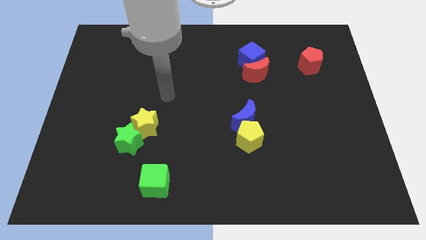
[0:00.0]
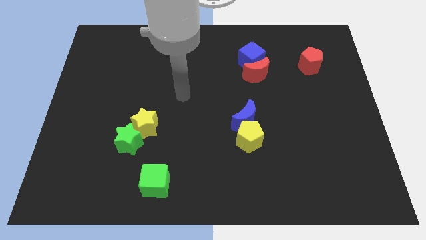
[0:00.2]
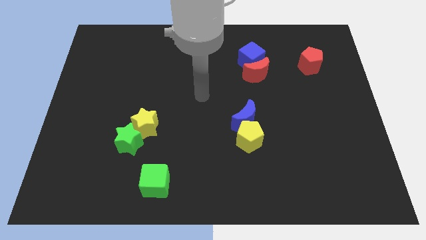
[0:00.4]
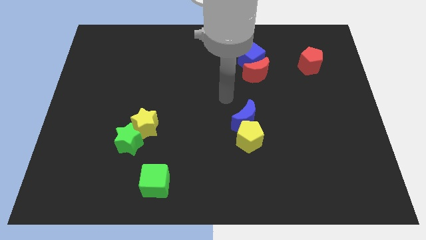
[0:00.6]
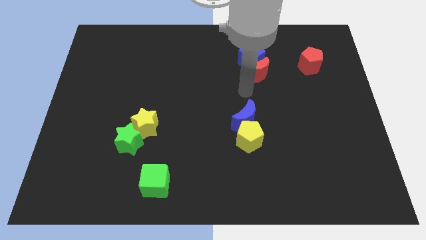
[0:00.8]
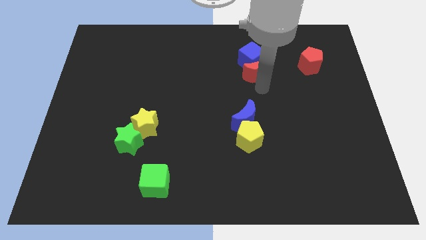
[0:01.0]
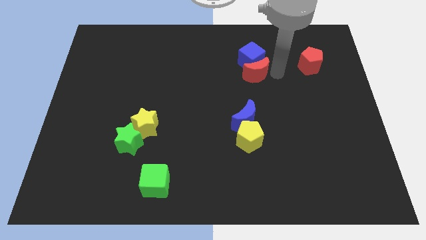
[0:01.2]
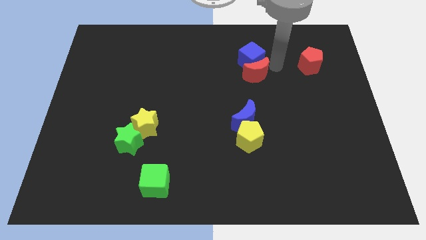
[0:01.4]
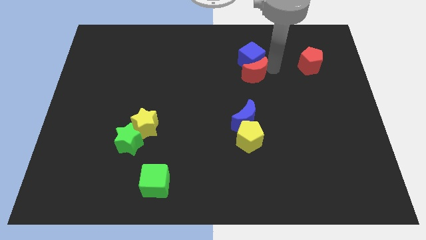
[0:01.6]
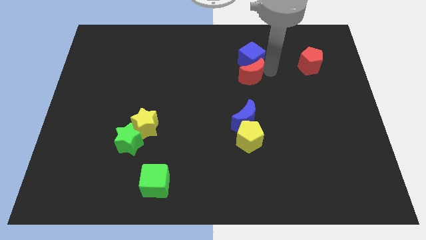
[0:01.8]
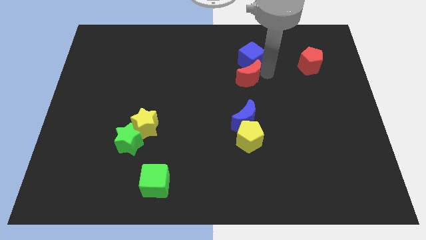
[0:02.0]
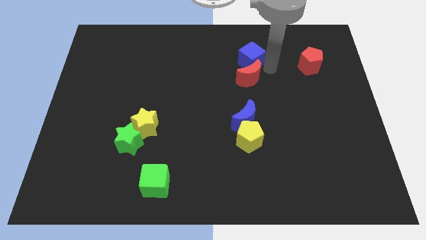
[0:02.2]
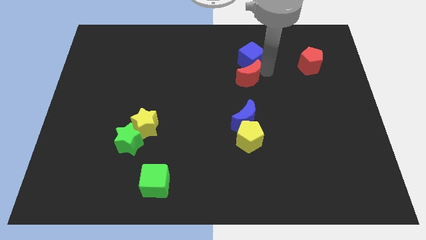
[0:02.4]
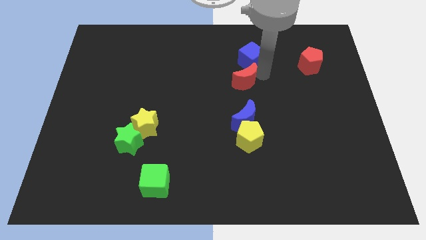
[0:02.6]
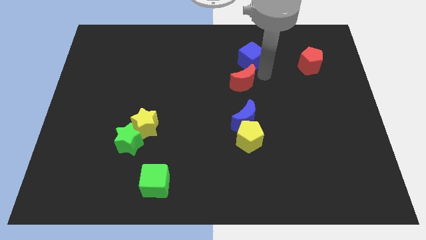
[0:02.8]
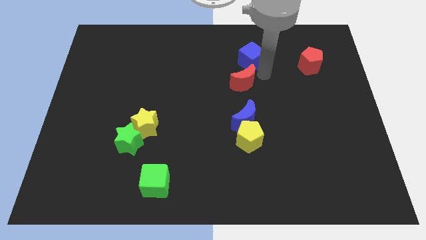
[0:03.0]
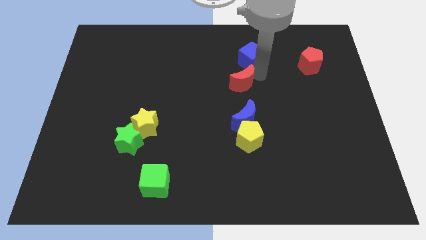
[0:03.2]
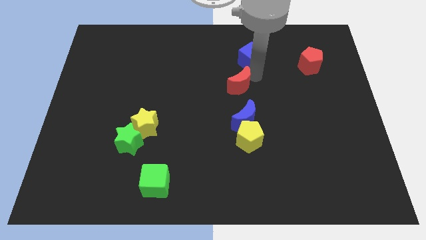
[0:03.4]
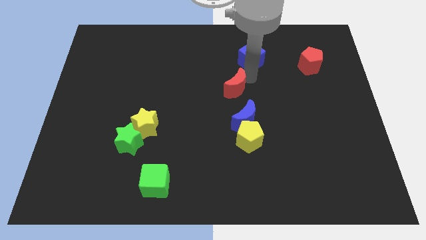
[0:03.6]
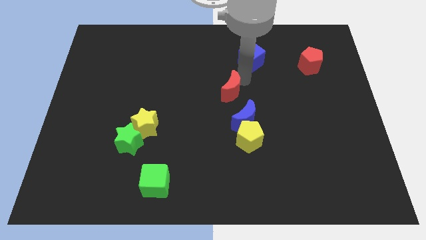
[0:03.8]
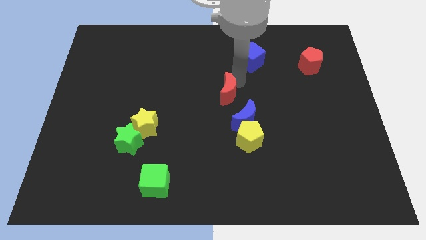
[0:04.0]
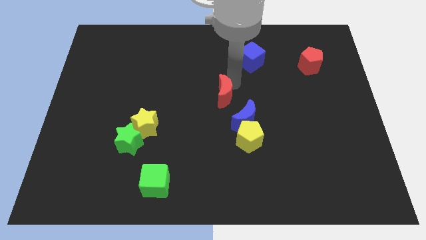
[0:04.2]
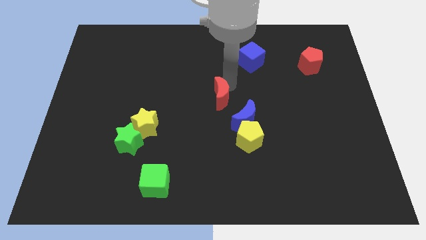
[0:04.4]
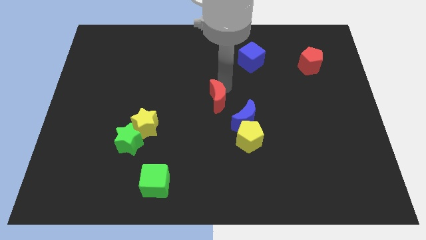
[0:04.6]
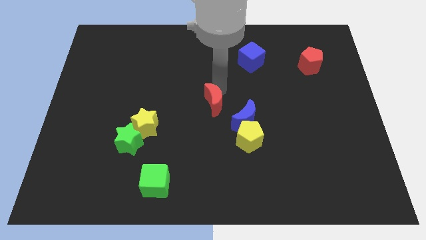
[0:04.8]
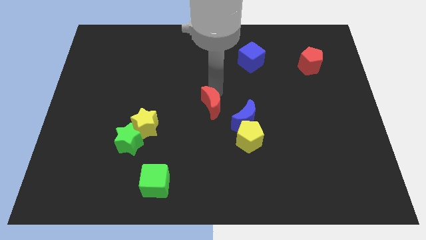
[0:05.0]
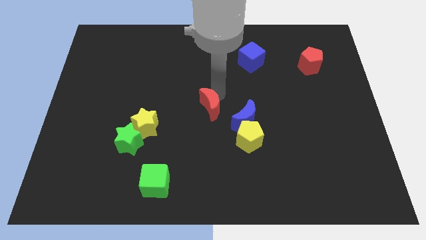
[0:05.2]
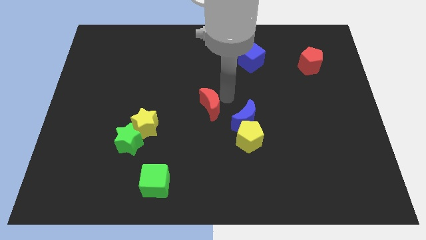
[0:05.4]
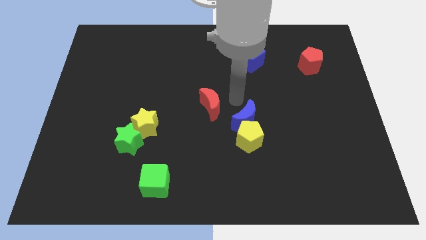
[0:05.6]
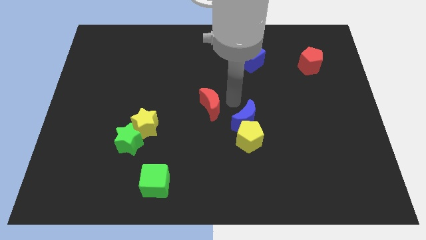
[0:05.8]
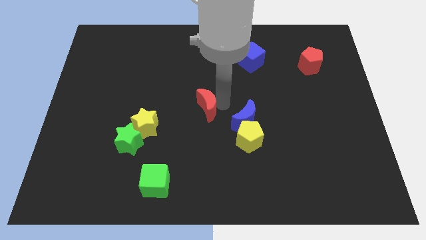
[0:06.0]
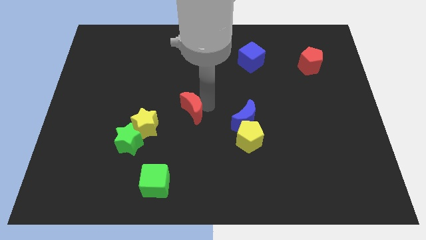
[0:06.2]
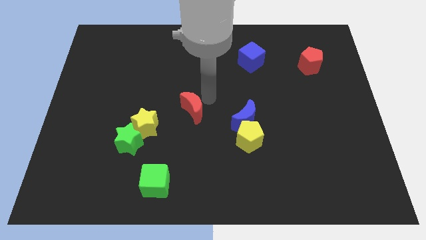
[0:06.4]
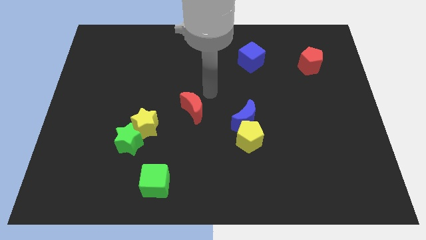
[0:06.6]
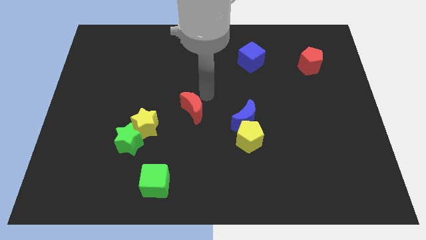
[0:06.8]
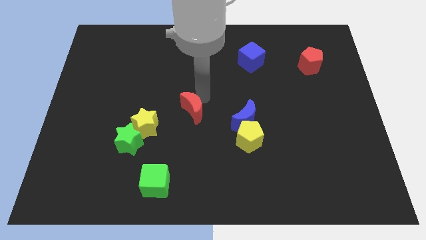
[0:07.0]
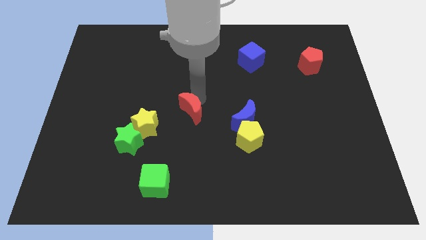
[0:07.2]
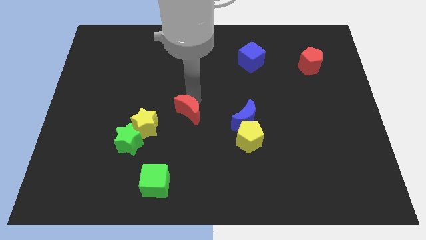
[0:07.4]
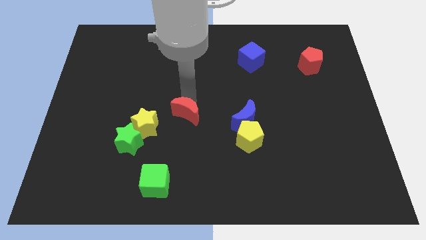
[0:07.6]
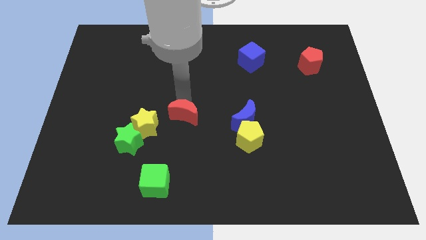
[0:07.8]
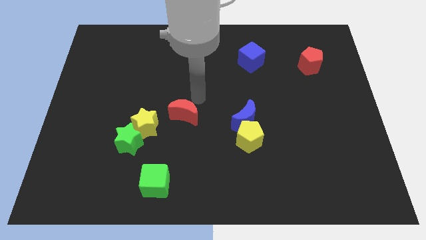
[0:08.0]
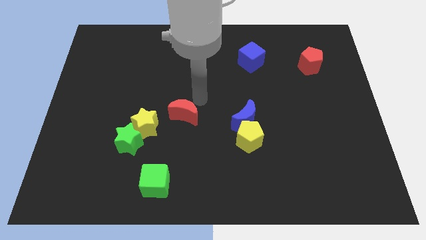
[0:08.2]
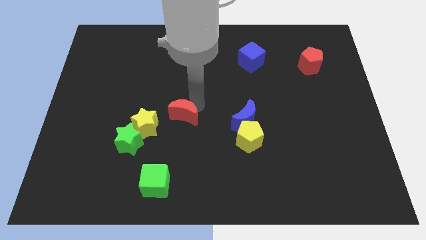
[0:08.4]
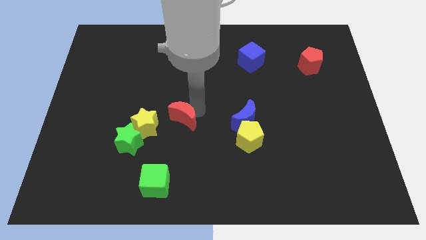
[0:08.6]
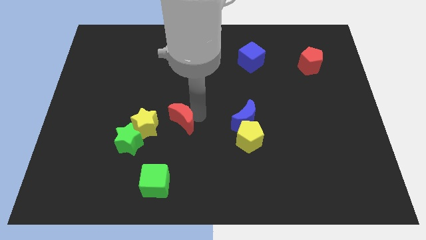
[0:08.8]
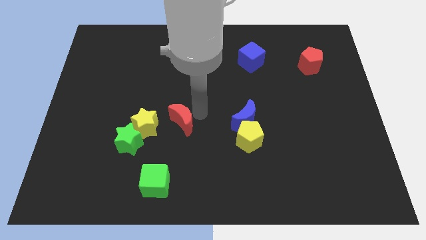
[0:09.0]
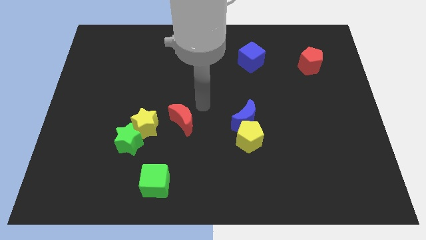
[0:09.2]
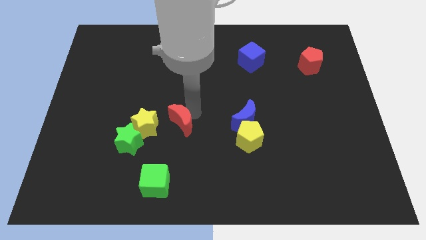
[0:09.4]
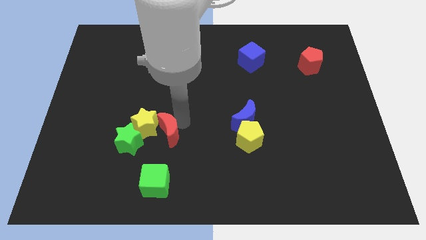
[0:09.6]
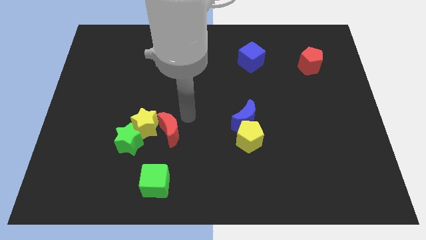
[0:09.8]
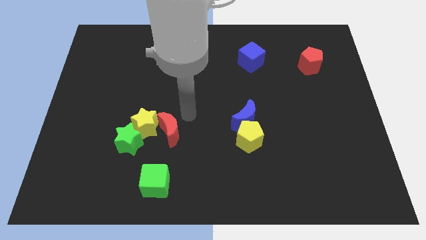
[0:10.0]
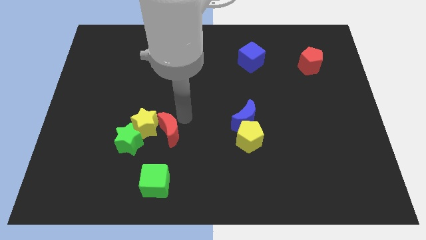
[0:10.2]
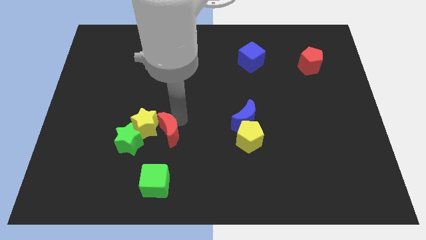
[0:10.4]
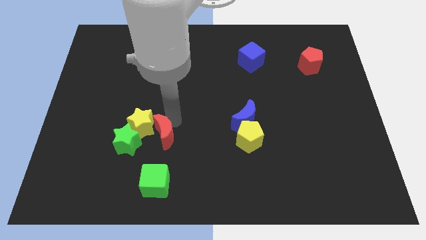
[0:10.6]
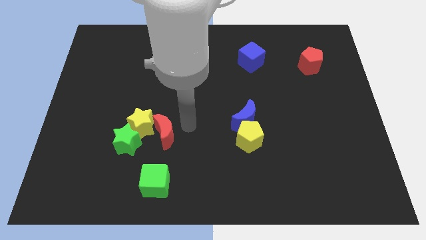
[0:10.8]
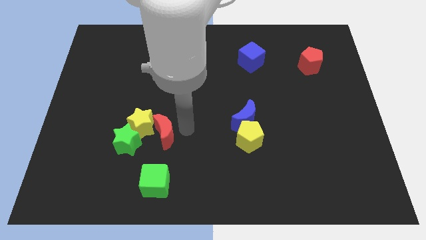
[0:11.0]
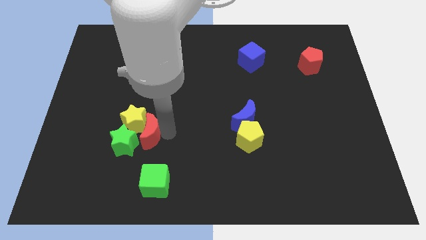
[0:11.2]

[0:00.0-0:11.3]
move the red moon to the green star
